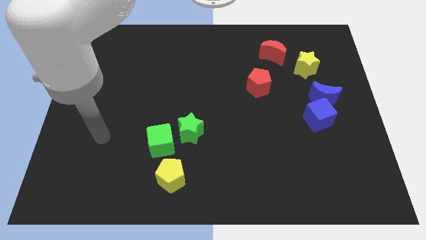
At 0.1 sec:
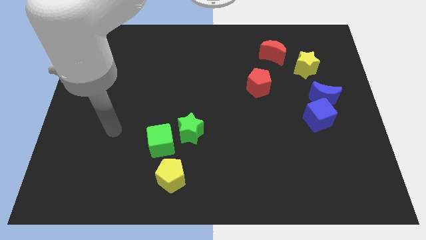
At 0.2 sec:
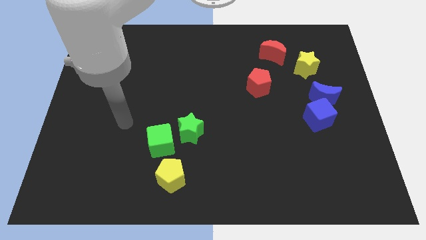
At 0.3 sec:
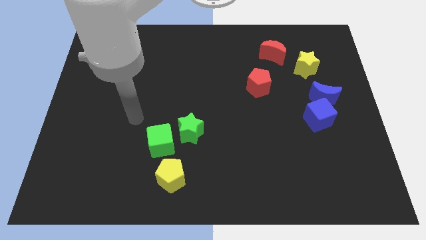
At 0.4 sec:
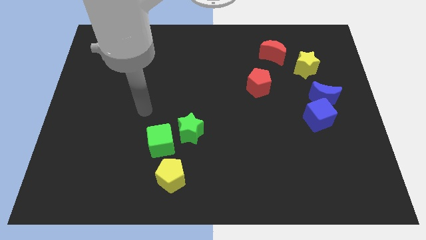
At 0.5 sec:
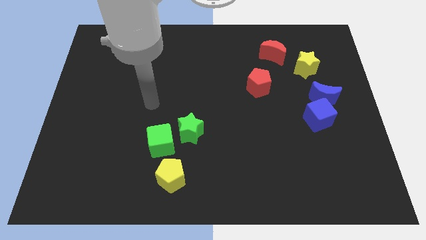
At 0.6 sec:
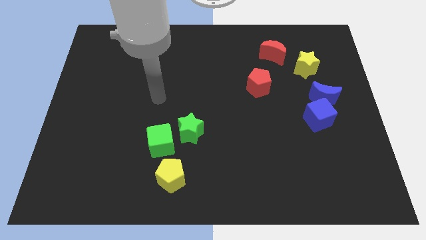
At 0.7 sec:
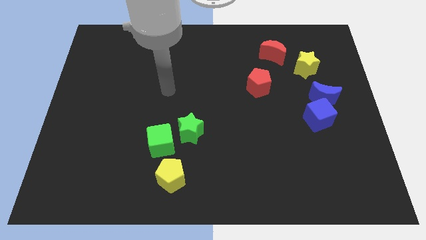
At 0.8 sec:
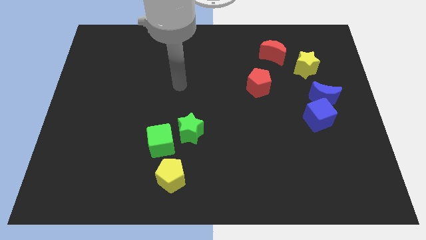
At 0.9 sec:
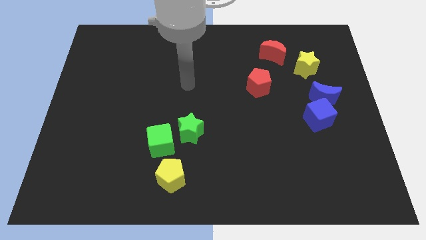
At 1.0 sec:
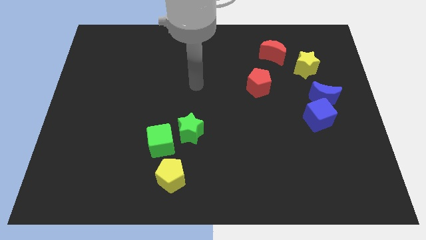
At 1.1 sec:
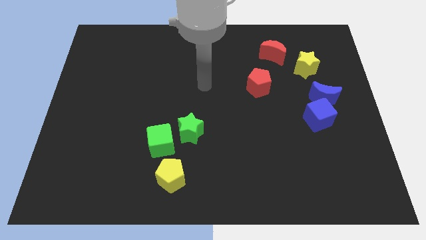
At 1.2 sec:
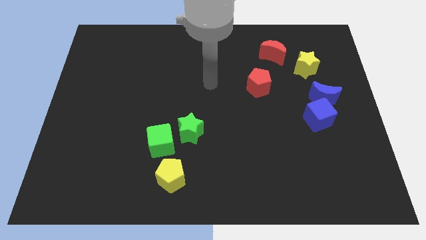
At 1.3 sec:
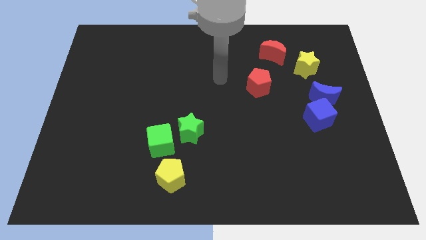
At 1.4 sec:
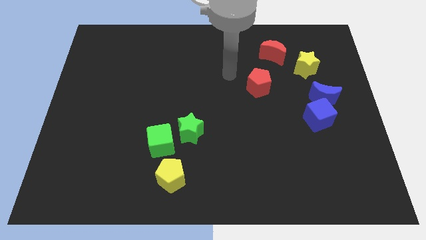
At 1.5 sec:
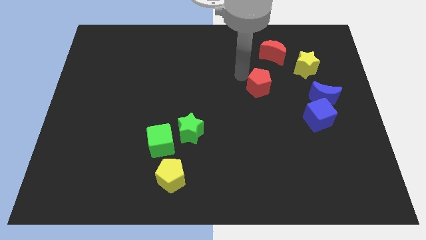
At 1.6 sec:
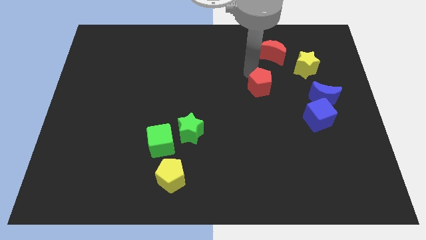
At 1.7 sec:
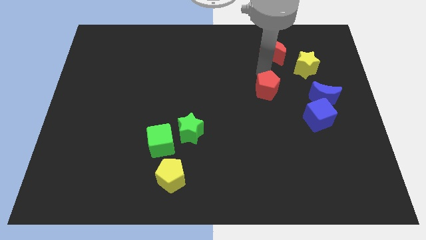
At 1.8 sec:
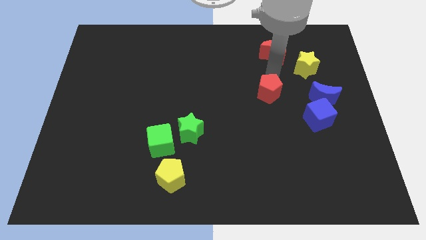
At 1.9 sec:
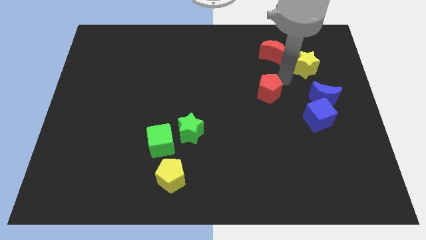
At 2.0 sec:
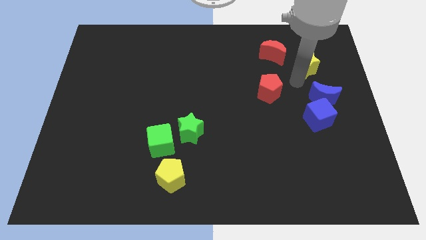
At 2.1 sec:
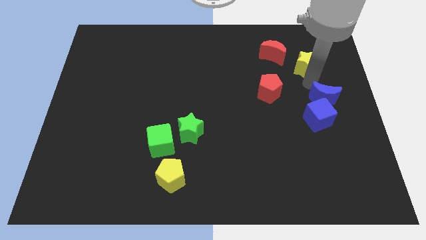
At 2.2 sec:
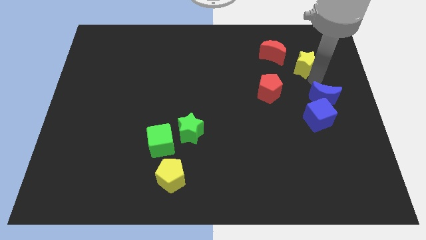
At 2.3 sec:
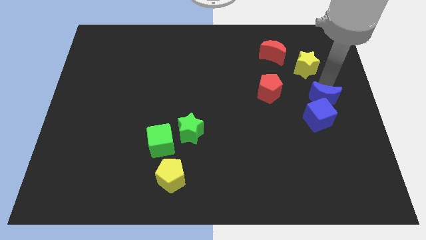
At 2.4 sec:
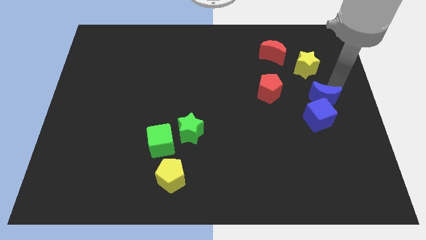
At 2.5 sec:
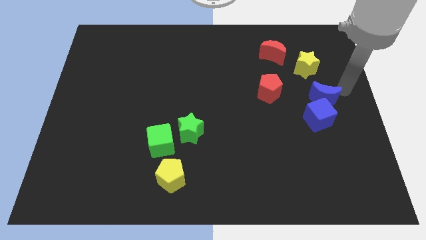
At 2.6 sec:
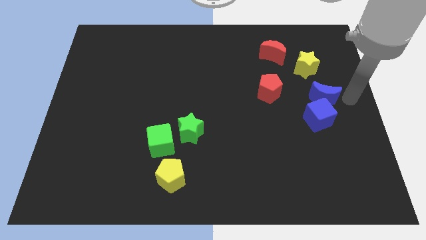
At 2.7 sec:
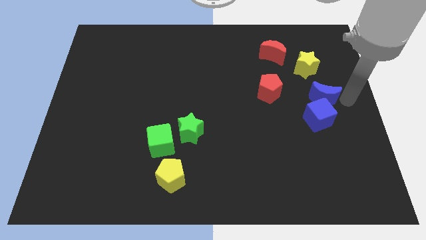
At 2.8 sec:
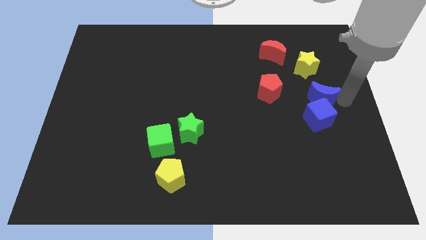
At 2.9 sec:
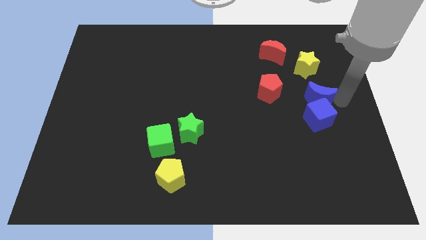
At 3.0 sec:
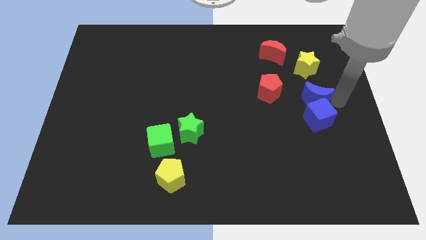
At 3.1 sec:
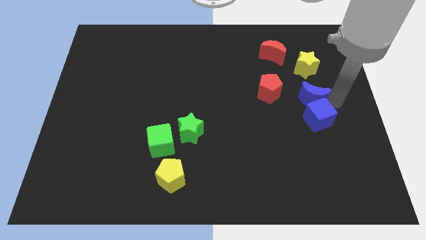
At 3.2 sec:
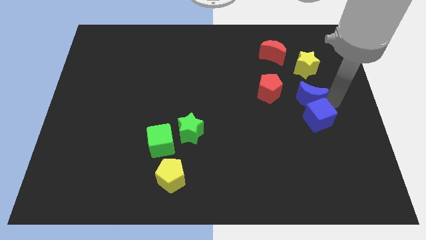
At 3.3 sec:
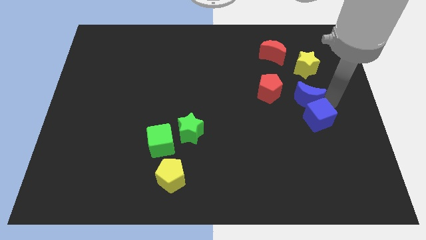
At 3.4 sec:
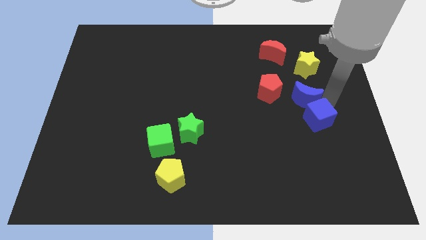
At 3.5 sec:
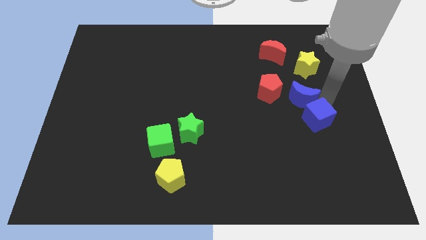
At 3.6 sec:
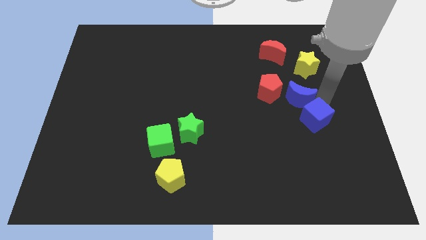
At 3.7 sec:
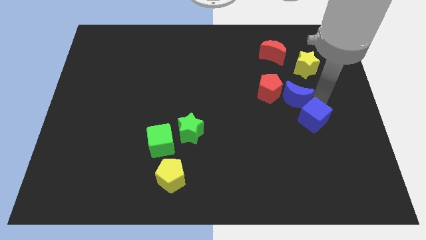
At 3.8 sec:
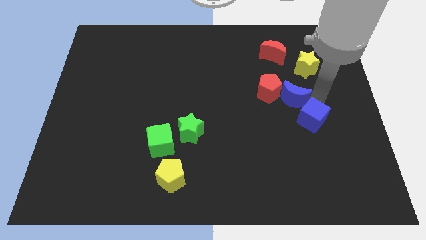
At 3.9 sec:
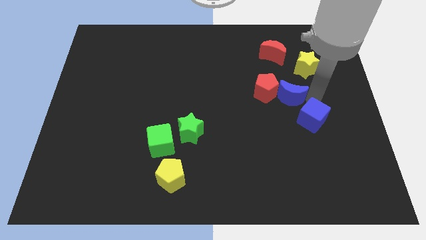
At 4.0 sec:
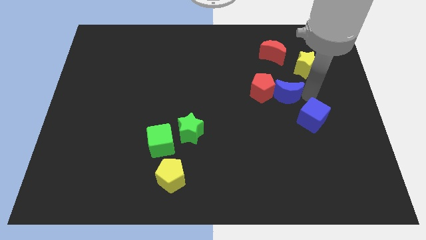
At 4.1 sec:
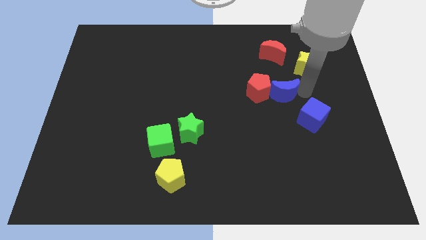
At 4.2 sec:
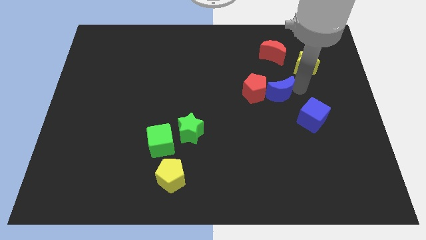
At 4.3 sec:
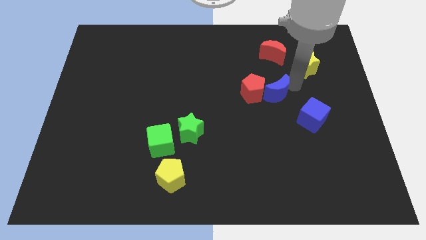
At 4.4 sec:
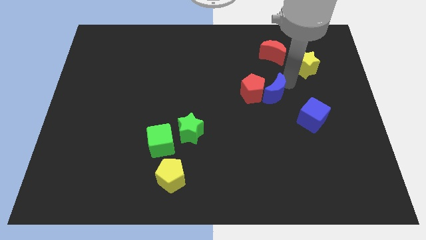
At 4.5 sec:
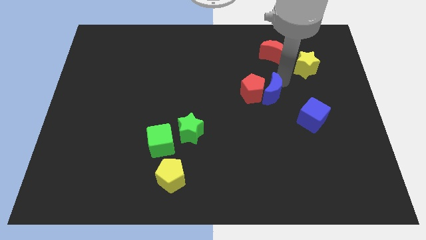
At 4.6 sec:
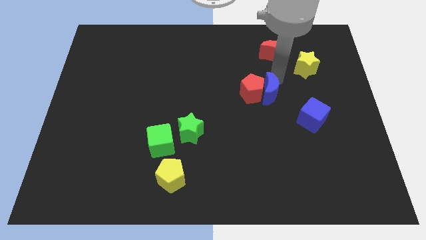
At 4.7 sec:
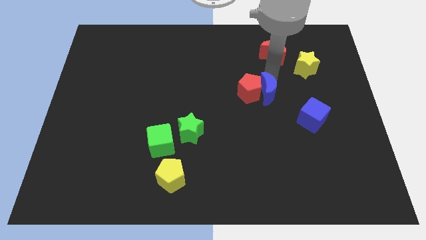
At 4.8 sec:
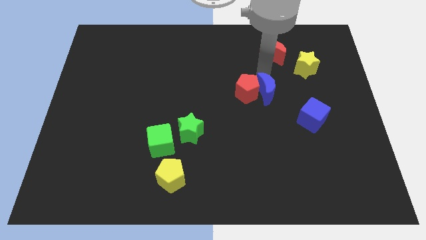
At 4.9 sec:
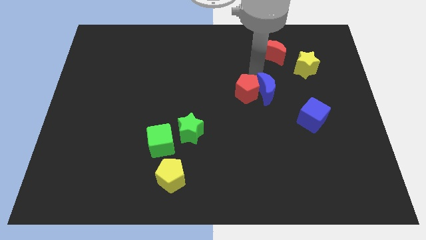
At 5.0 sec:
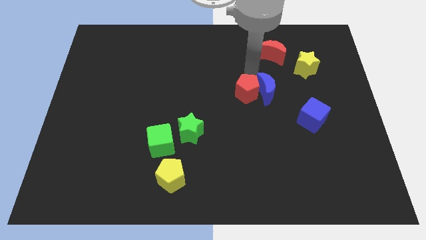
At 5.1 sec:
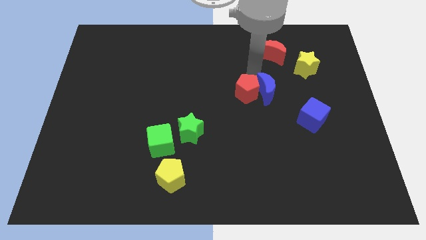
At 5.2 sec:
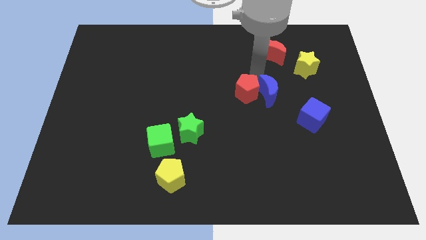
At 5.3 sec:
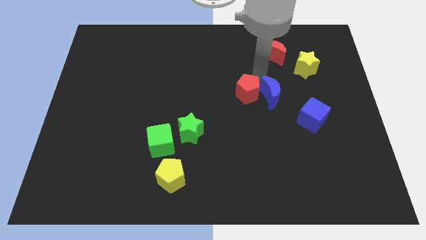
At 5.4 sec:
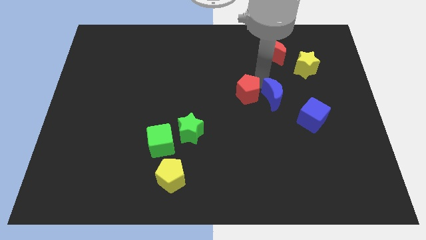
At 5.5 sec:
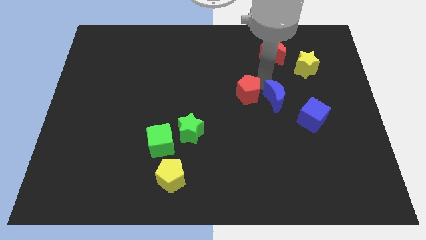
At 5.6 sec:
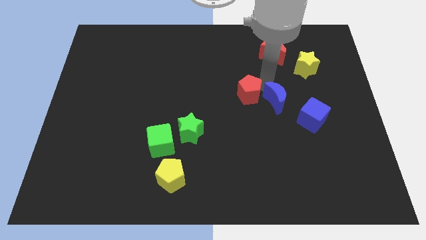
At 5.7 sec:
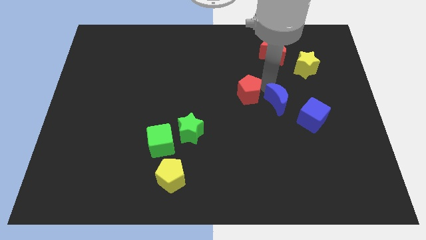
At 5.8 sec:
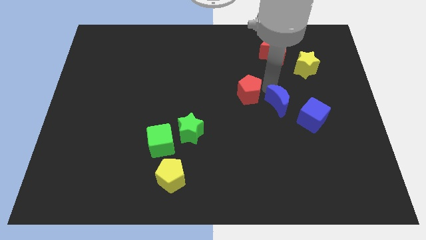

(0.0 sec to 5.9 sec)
slightly move the blue moon downwards and then left

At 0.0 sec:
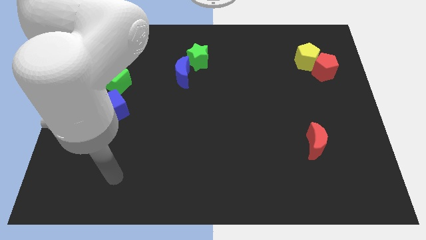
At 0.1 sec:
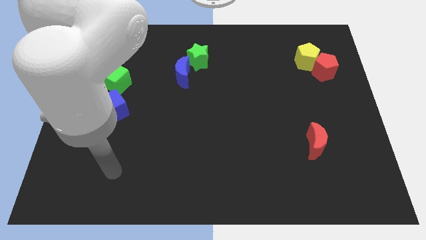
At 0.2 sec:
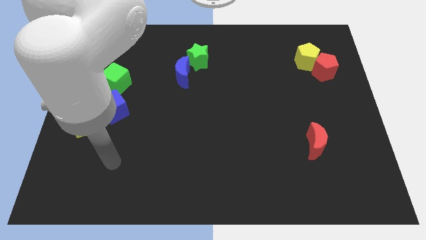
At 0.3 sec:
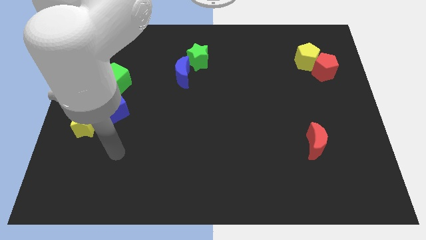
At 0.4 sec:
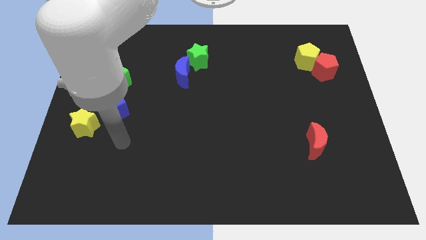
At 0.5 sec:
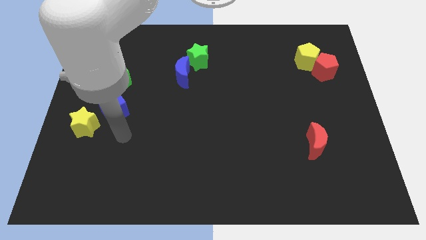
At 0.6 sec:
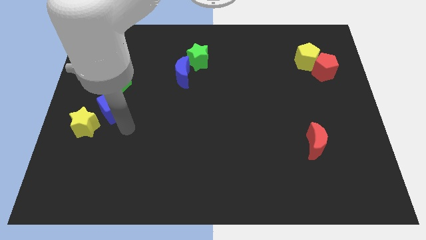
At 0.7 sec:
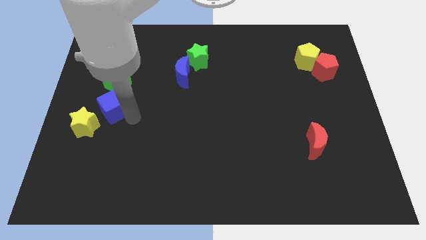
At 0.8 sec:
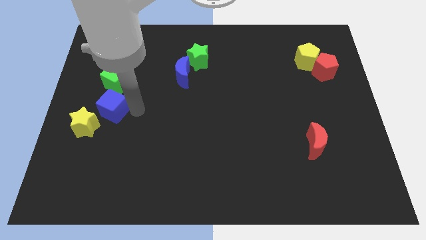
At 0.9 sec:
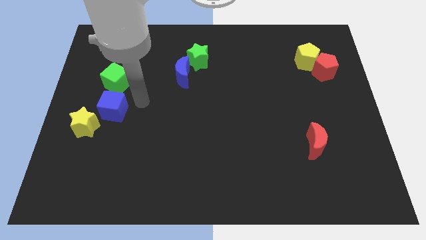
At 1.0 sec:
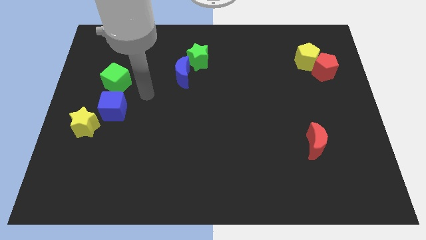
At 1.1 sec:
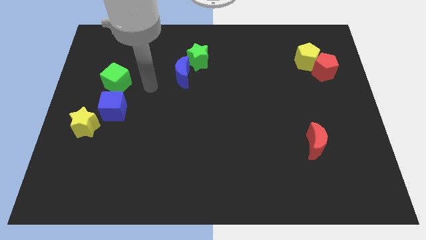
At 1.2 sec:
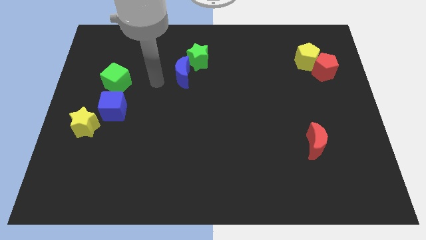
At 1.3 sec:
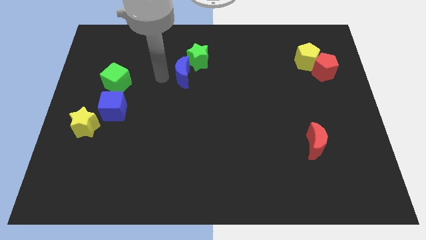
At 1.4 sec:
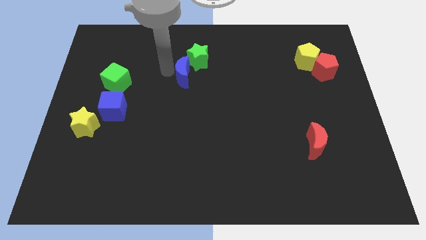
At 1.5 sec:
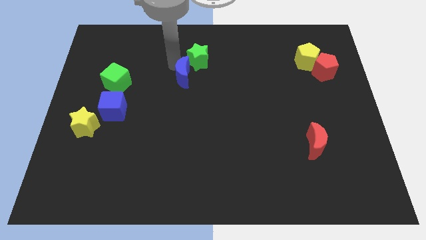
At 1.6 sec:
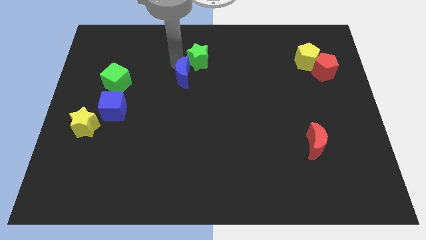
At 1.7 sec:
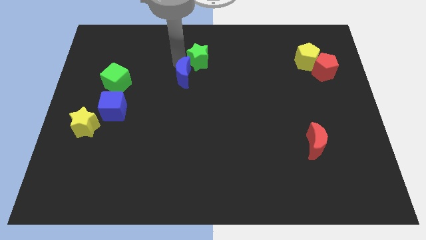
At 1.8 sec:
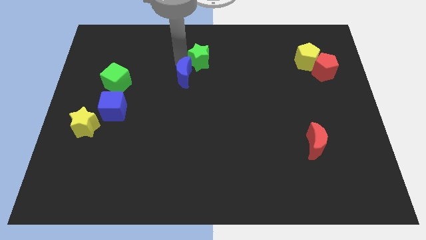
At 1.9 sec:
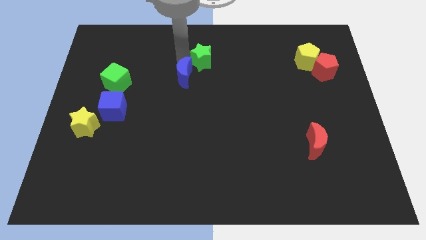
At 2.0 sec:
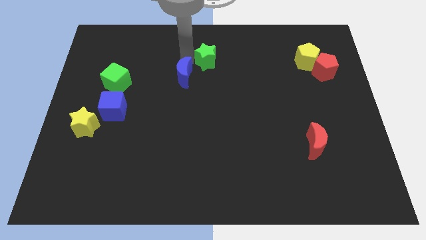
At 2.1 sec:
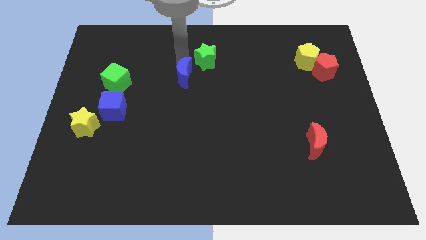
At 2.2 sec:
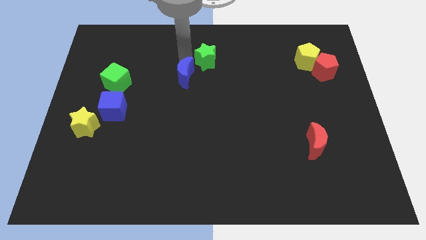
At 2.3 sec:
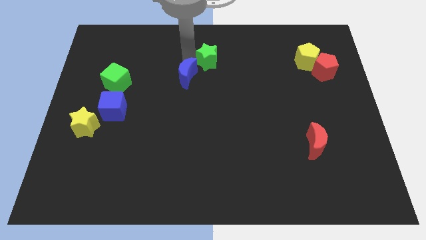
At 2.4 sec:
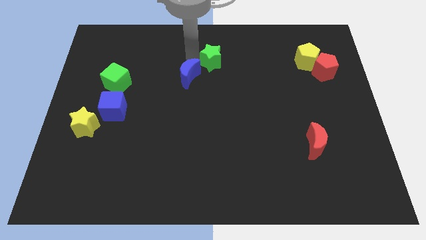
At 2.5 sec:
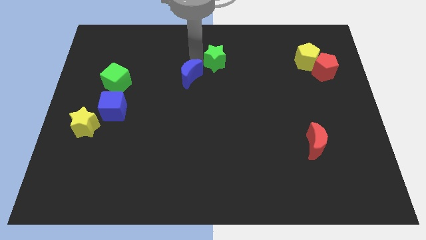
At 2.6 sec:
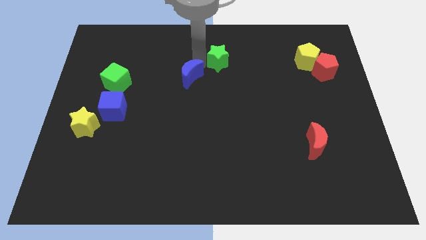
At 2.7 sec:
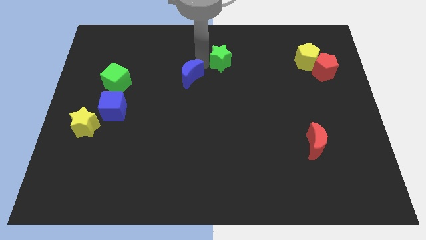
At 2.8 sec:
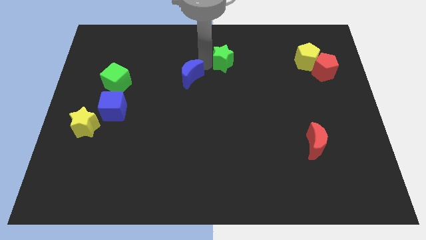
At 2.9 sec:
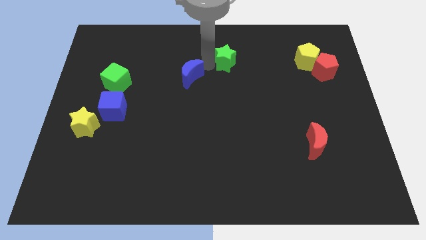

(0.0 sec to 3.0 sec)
slide the green star to the right slightly
